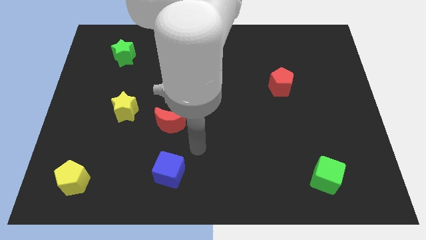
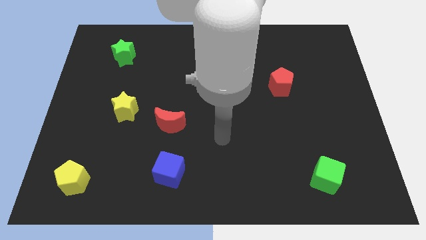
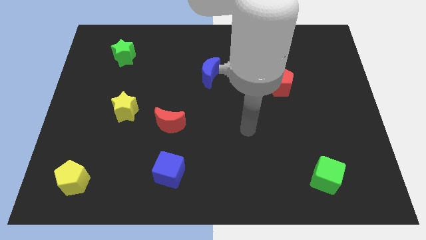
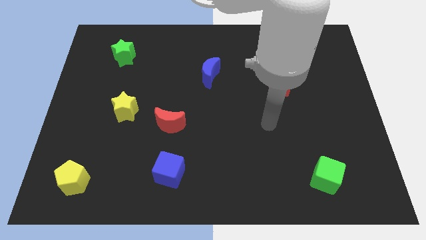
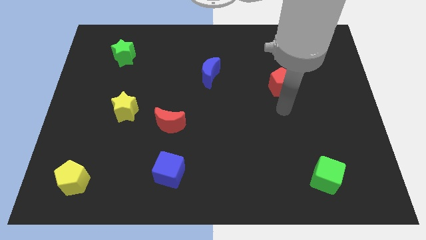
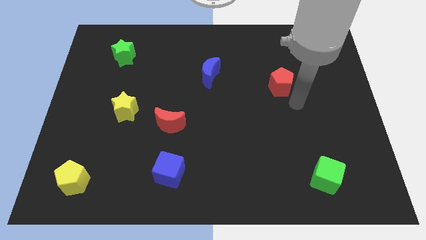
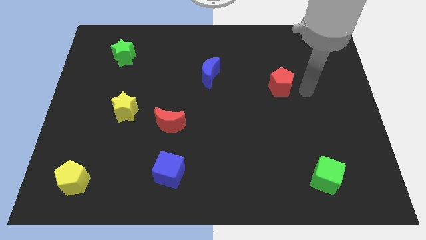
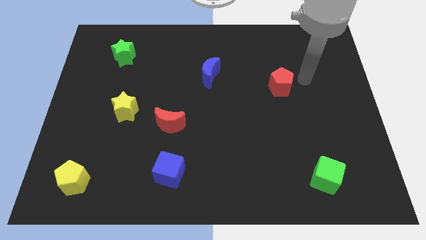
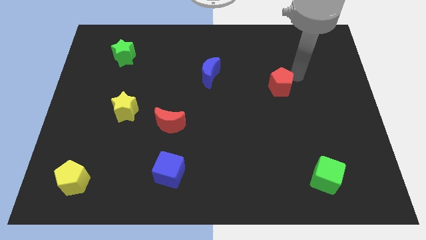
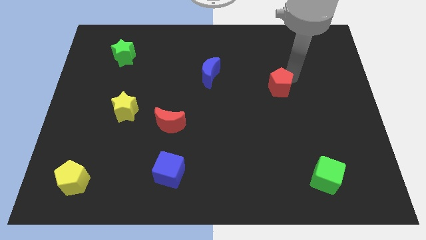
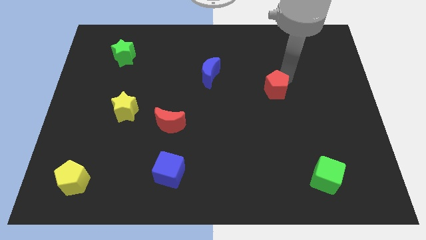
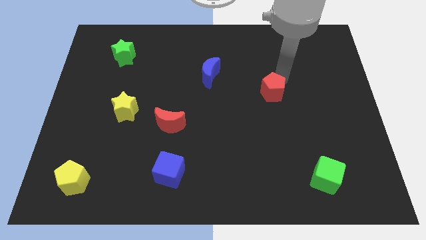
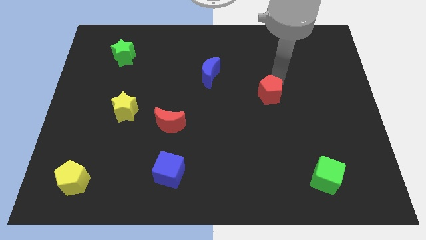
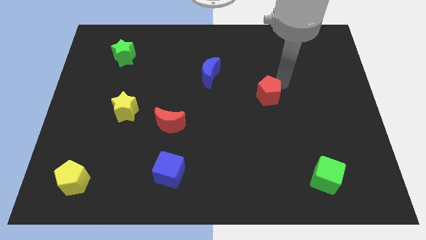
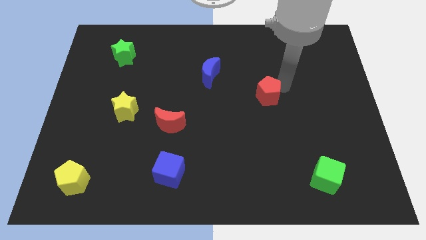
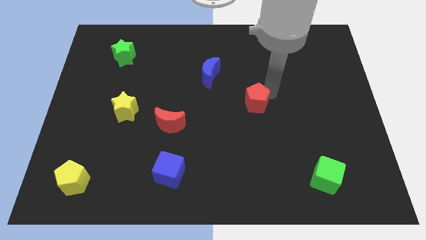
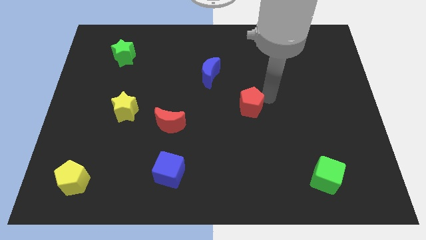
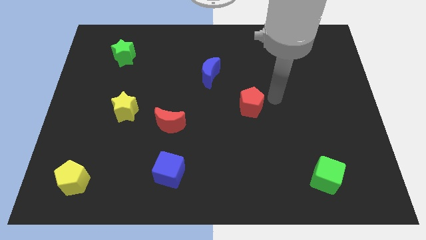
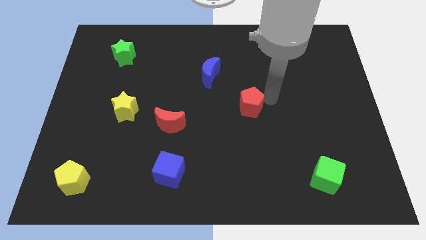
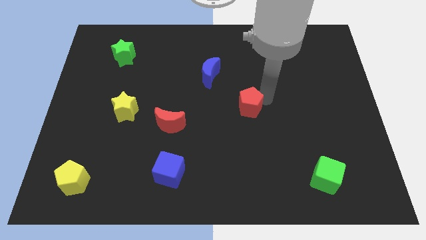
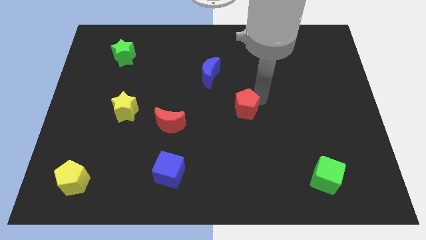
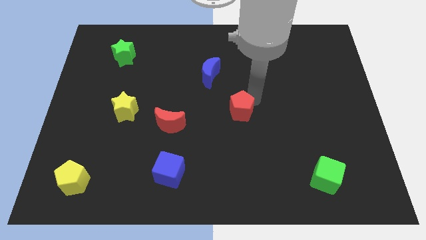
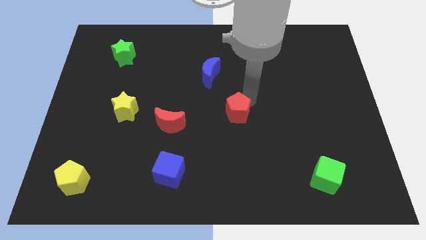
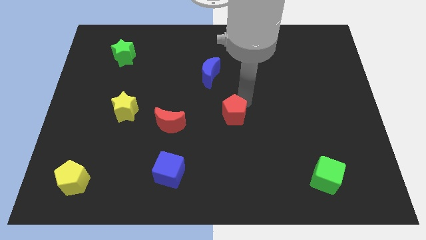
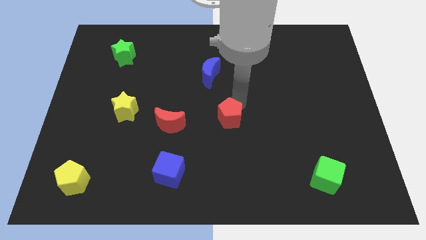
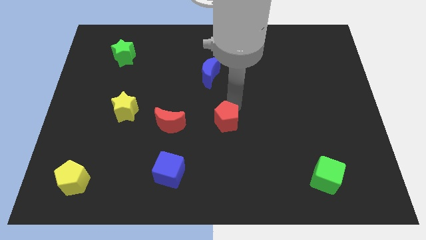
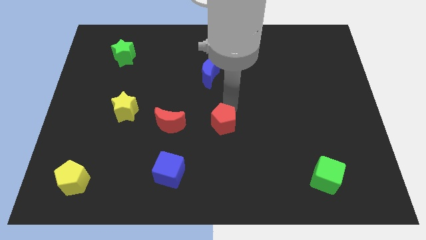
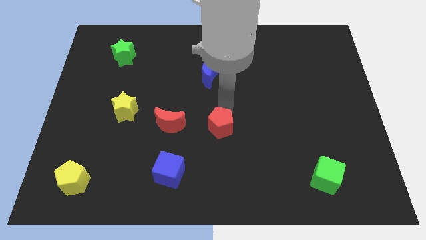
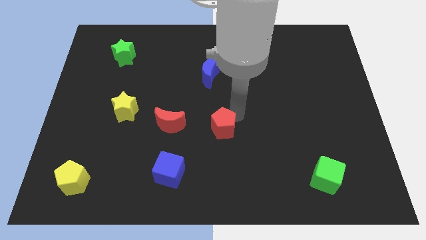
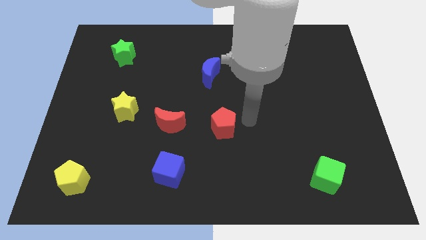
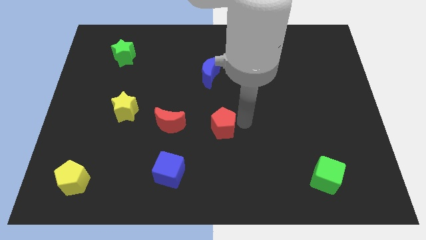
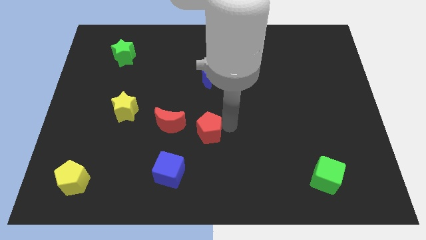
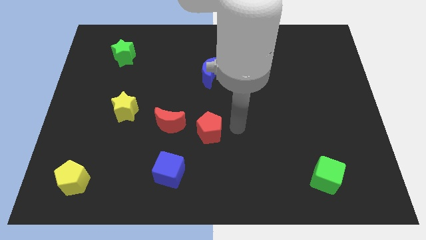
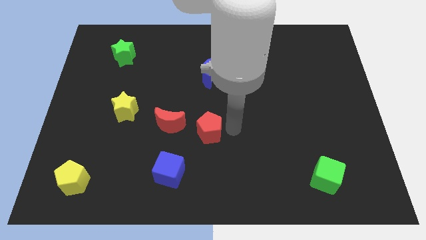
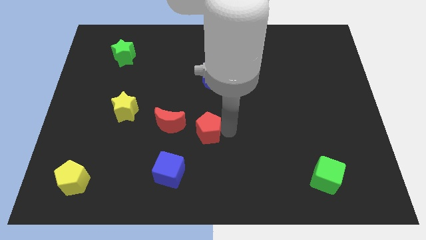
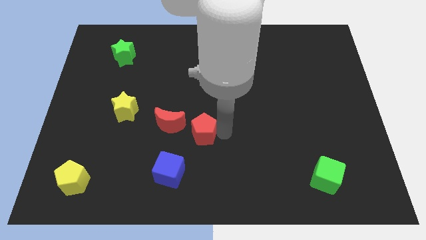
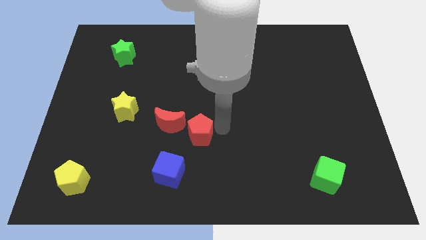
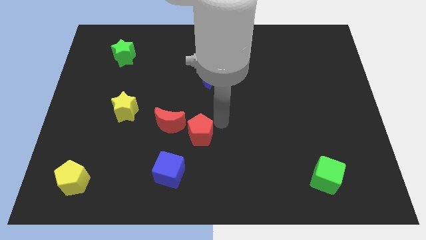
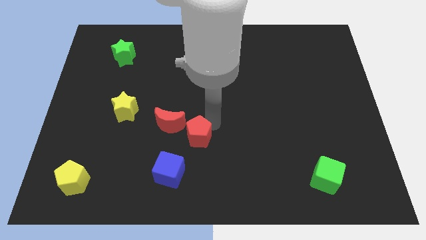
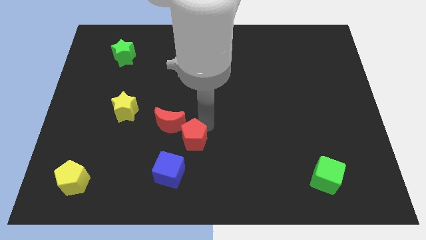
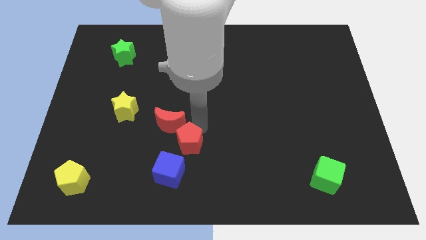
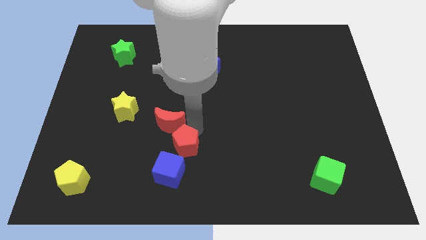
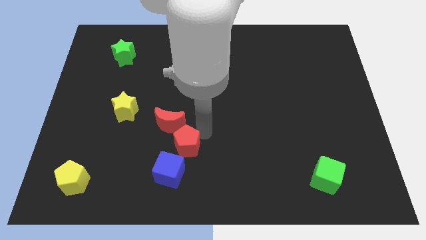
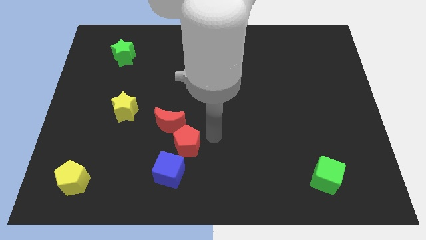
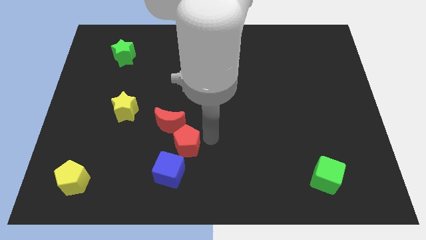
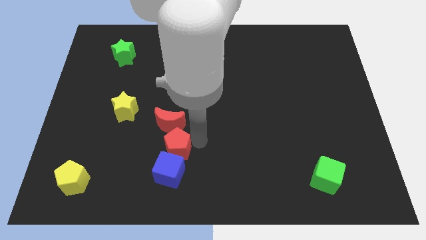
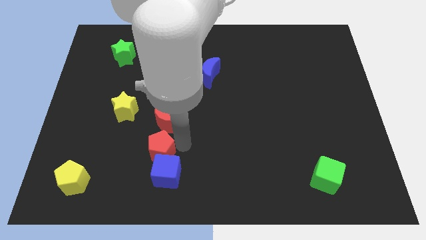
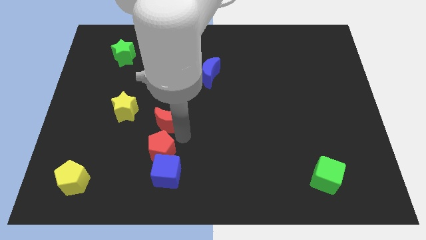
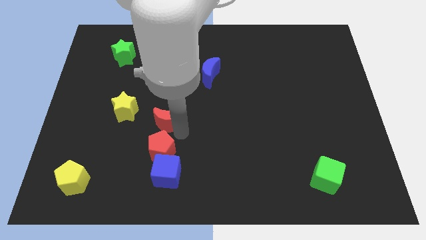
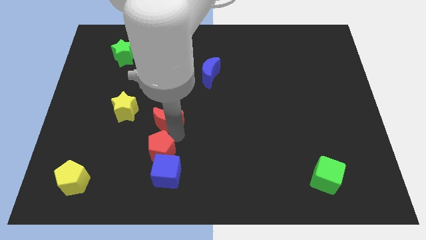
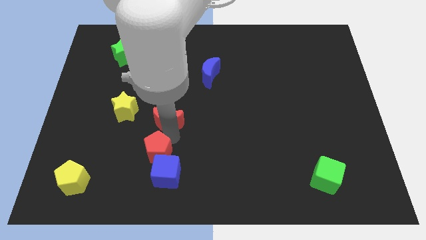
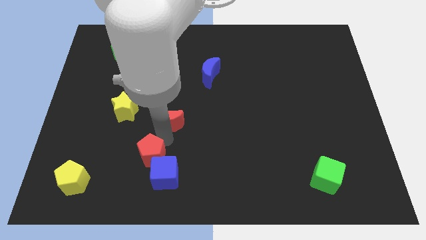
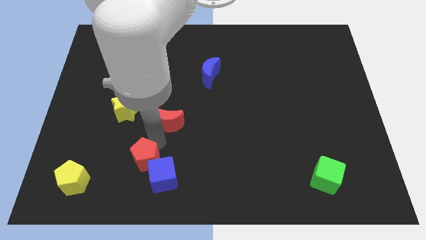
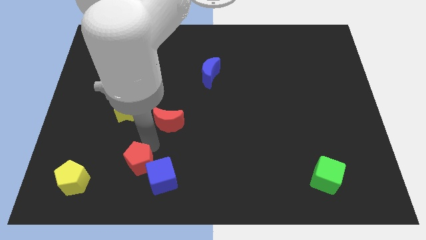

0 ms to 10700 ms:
push the red pentagon to the right of the yellow pentagon

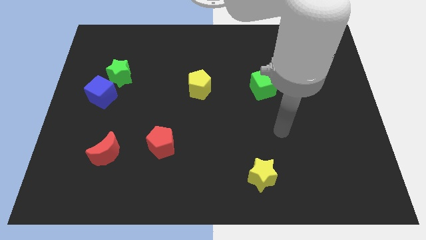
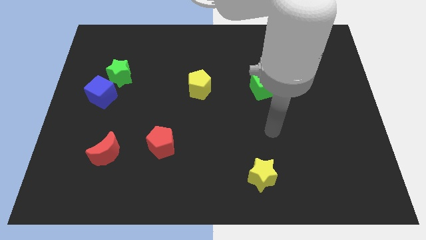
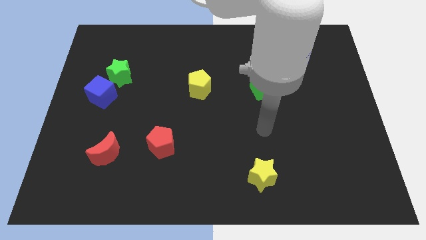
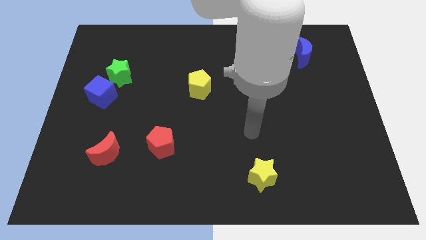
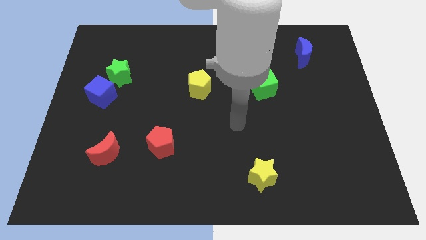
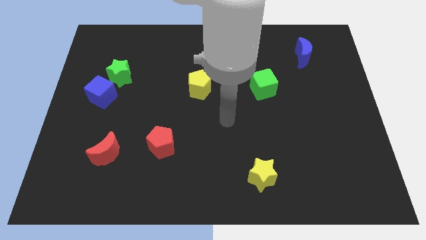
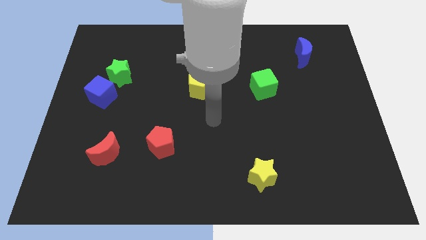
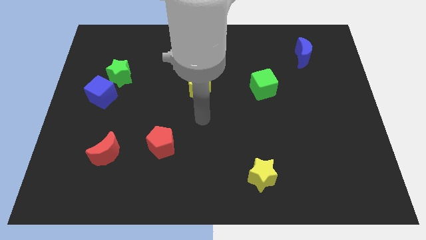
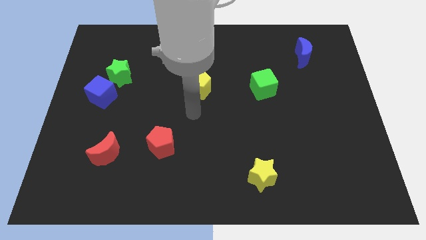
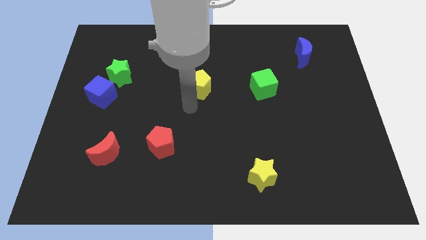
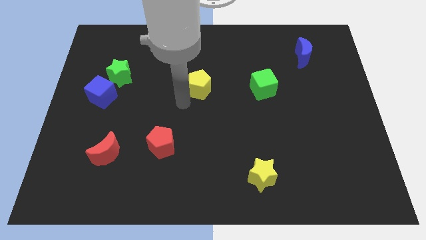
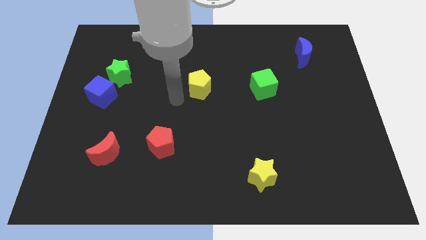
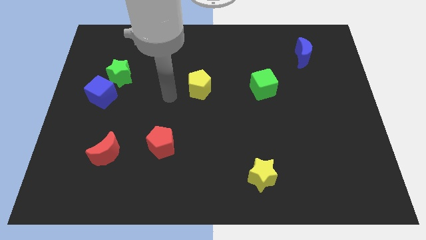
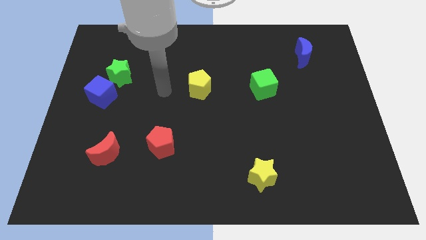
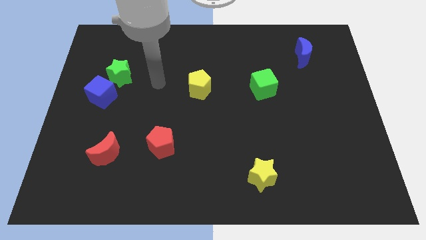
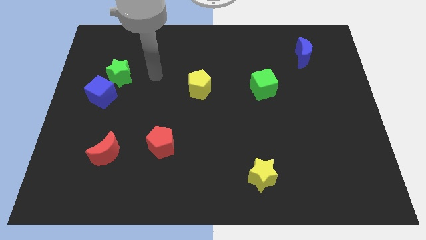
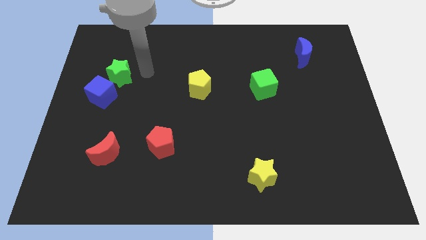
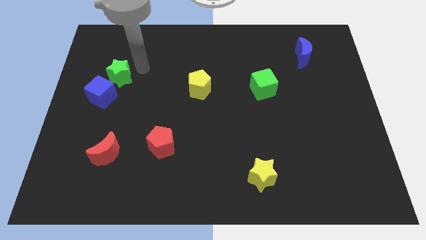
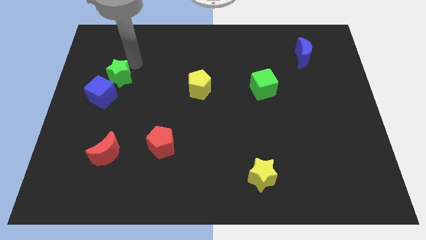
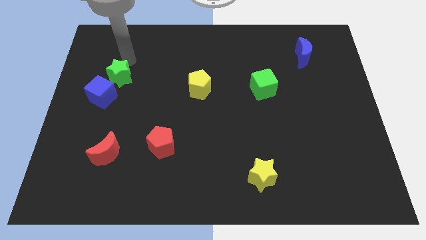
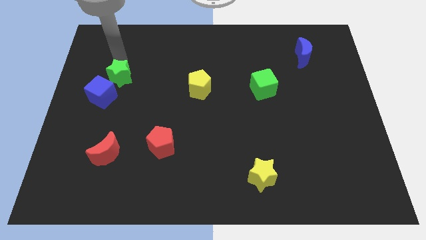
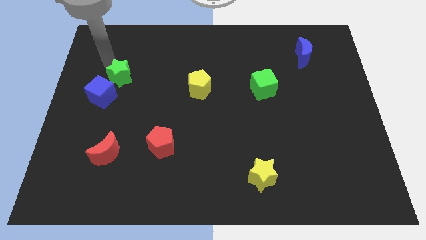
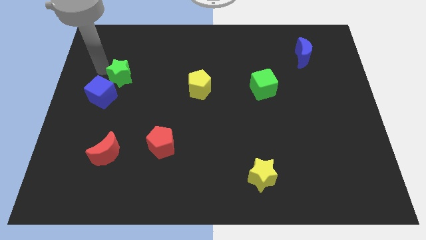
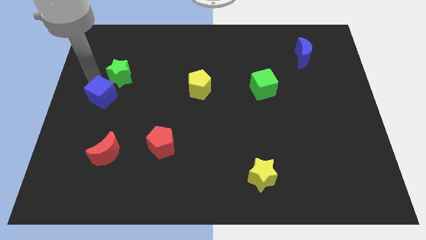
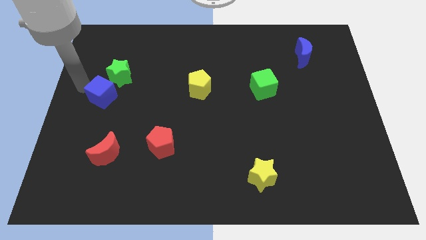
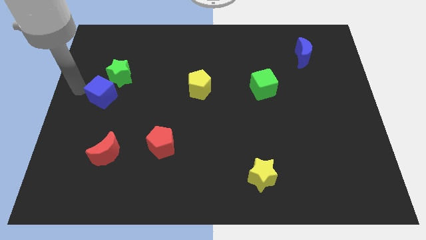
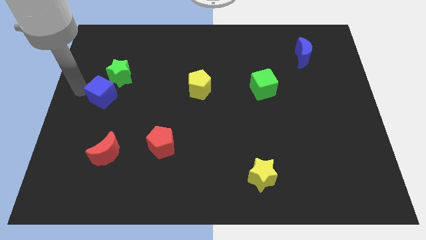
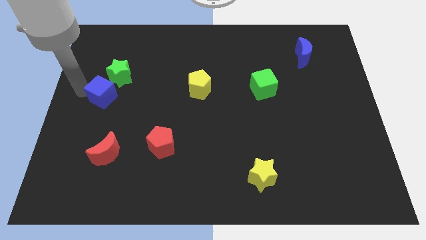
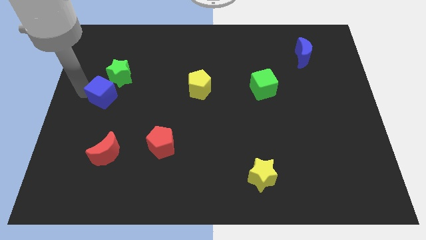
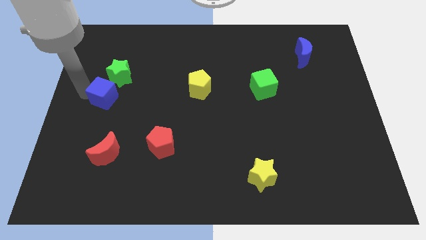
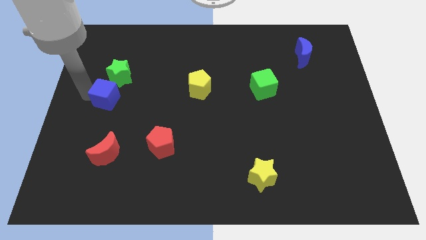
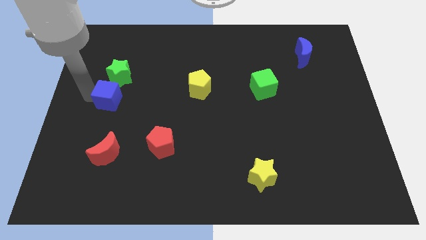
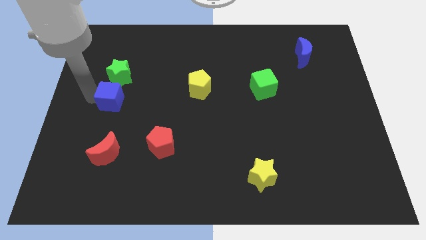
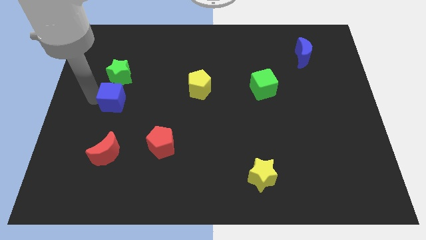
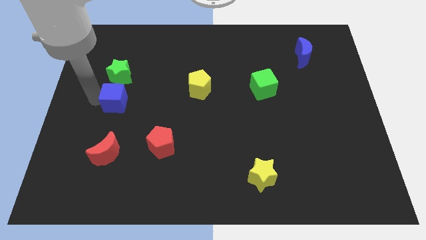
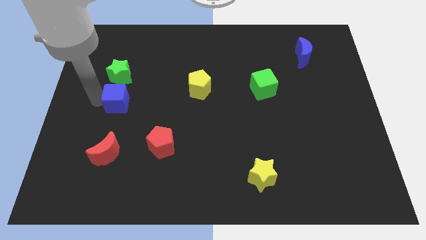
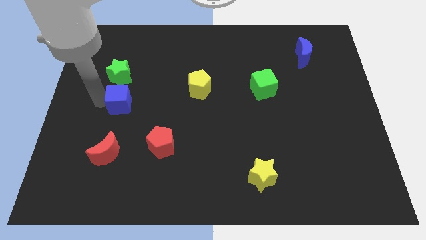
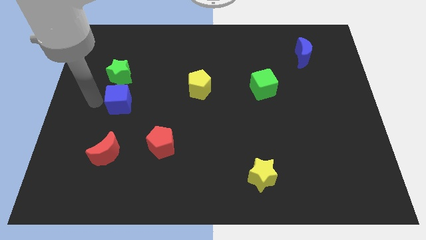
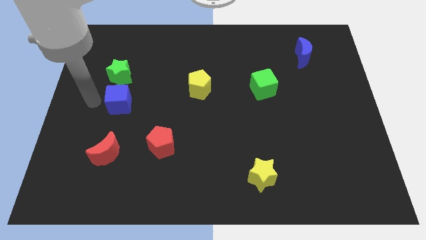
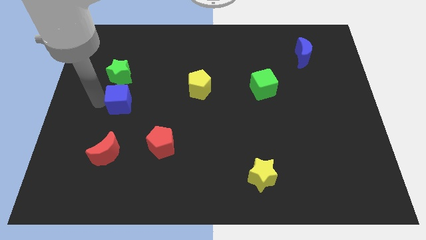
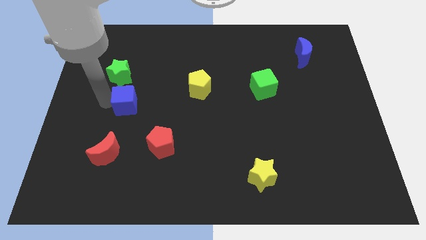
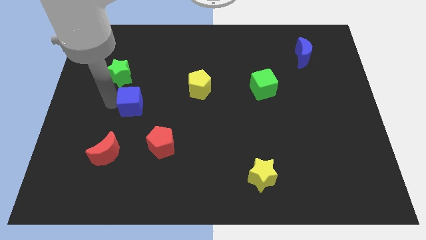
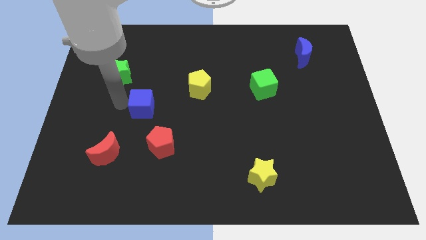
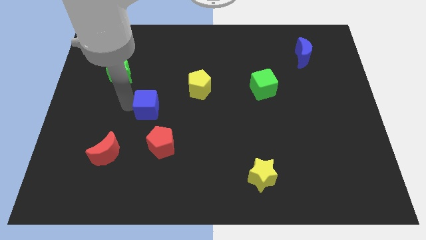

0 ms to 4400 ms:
move the blue cube to the top side of the red pentagon
